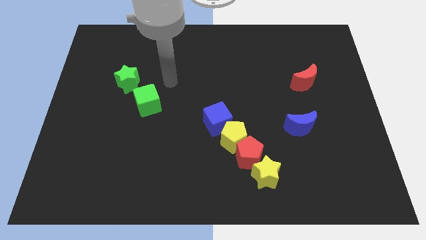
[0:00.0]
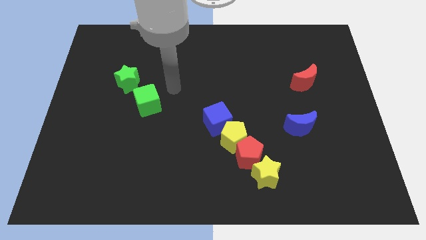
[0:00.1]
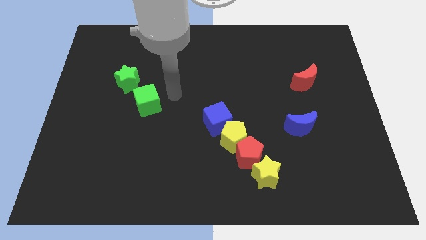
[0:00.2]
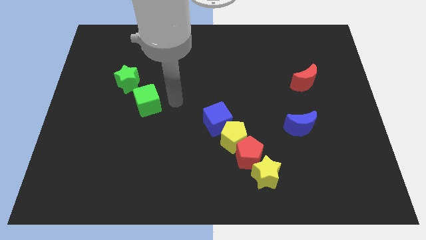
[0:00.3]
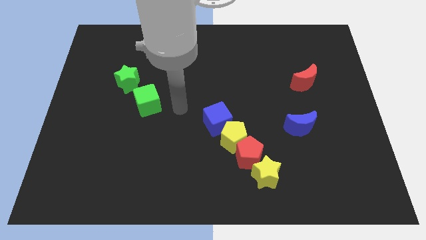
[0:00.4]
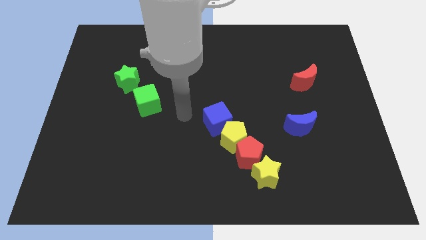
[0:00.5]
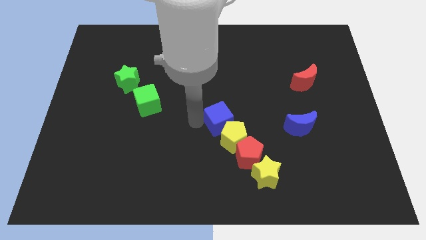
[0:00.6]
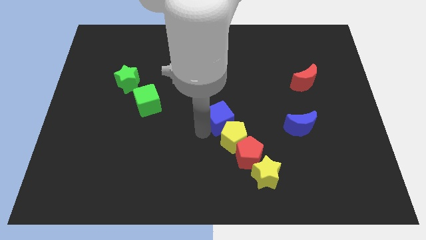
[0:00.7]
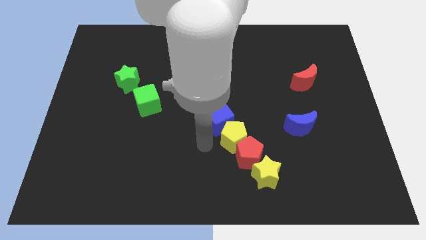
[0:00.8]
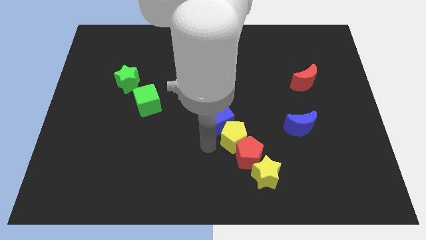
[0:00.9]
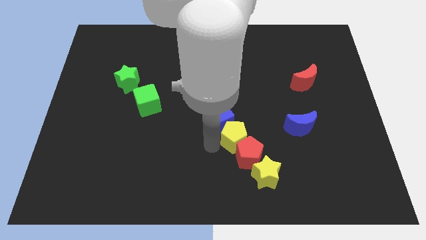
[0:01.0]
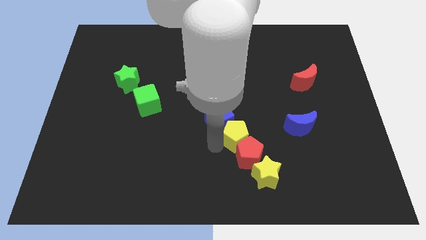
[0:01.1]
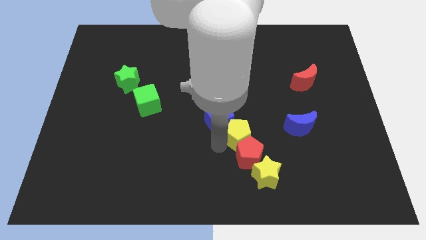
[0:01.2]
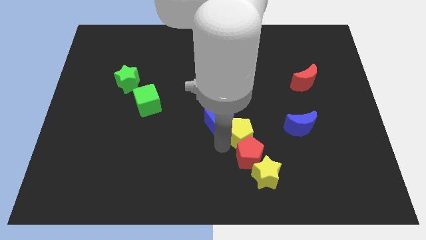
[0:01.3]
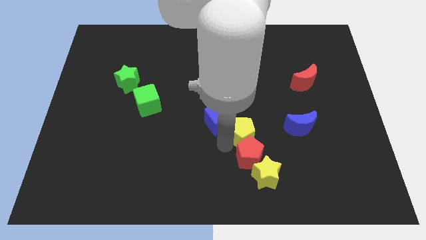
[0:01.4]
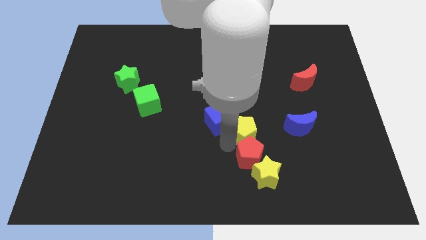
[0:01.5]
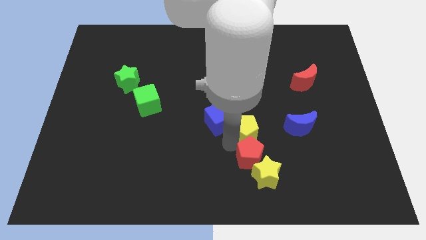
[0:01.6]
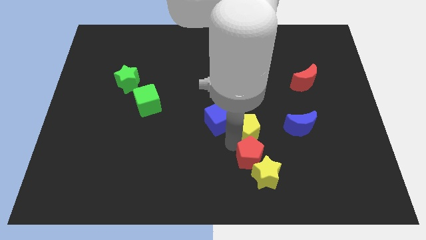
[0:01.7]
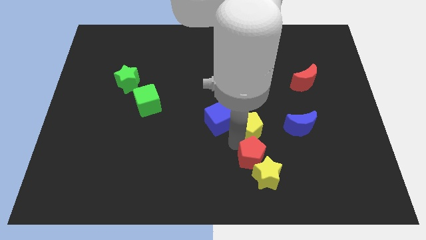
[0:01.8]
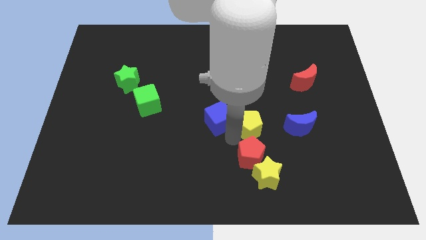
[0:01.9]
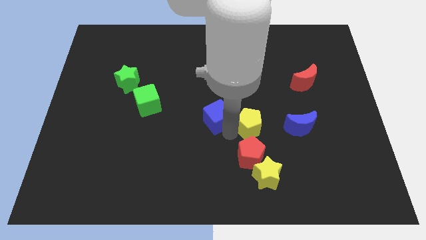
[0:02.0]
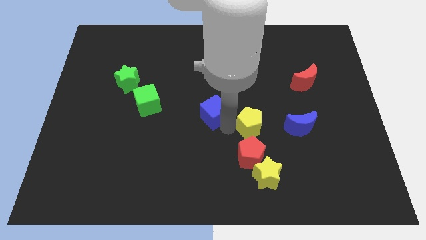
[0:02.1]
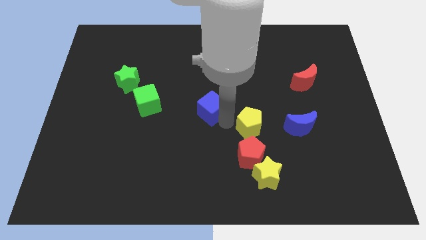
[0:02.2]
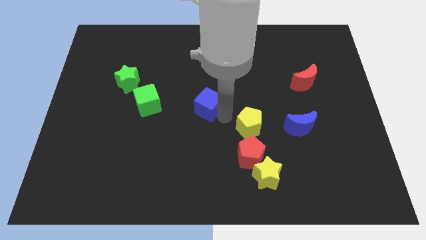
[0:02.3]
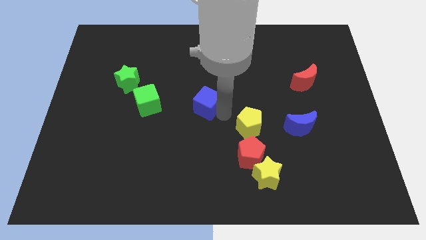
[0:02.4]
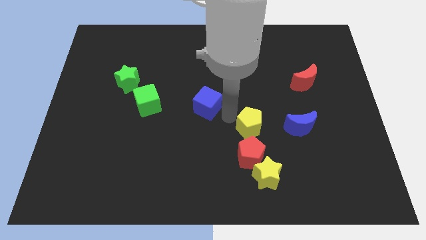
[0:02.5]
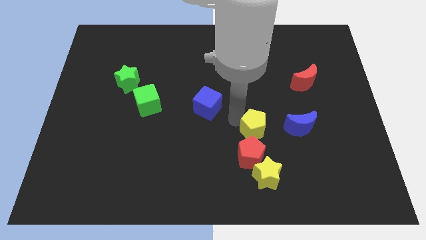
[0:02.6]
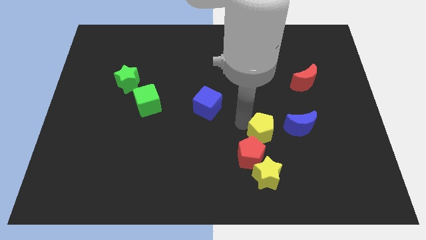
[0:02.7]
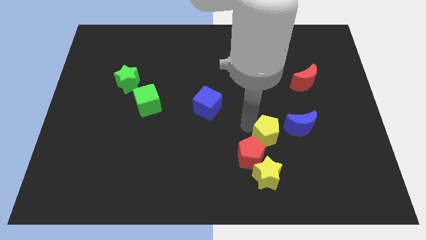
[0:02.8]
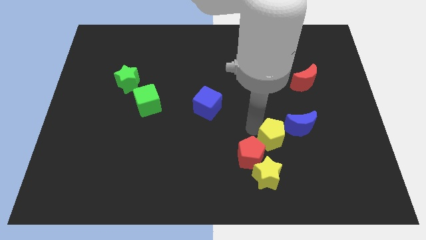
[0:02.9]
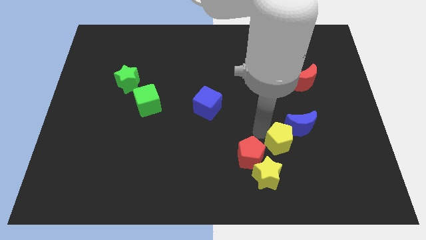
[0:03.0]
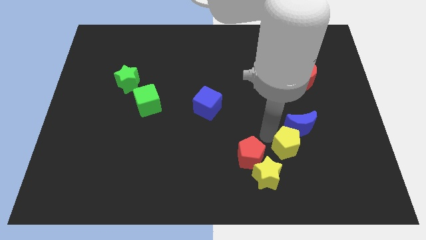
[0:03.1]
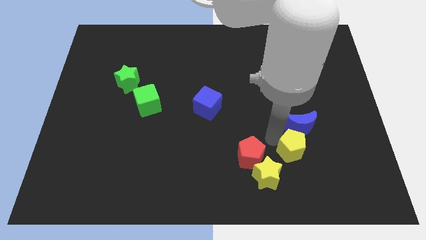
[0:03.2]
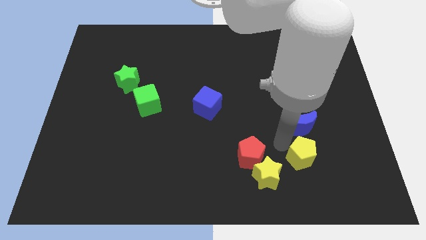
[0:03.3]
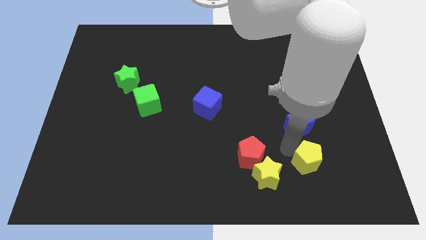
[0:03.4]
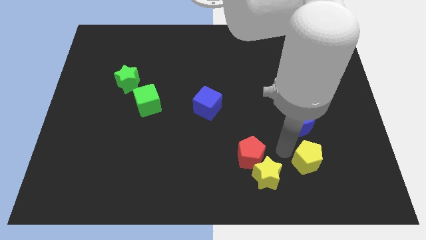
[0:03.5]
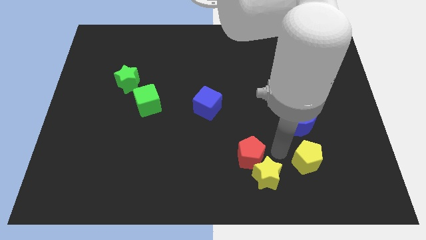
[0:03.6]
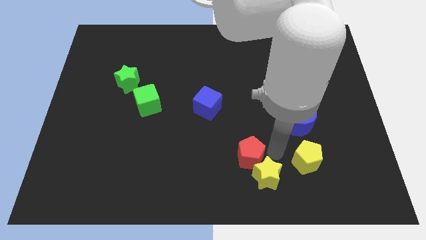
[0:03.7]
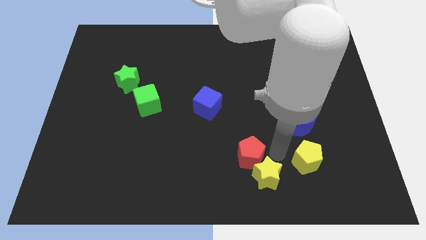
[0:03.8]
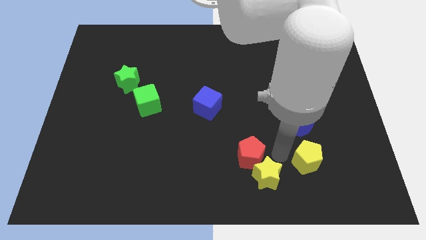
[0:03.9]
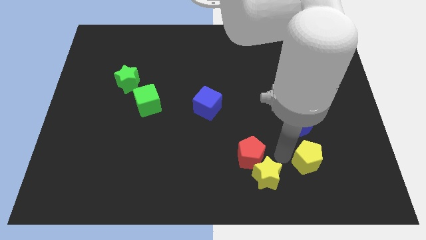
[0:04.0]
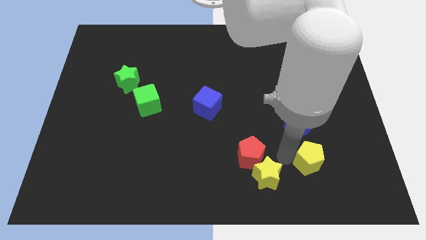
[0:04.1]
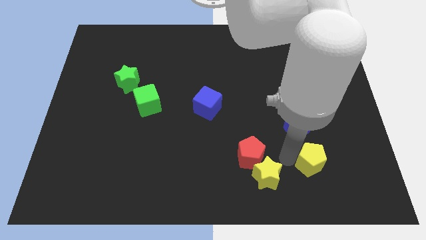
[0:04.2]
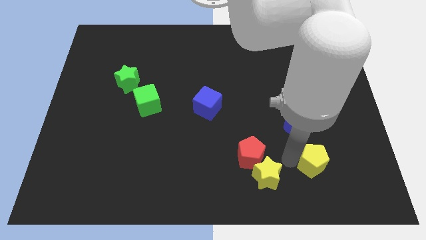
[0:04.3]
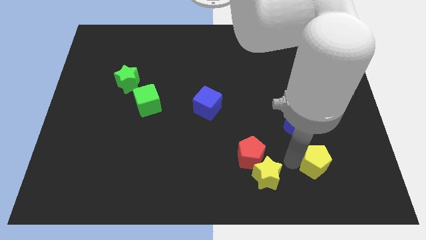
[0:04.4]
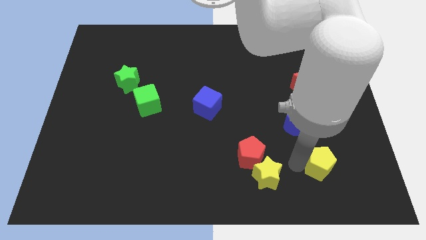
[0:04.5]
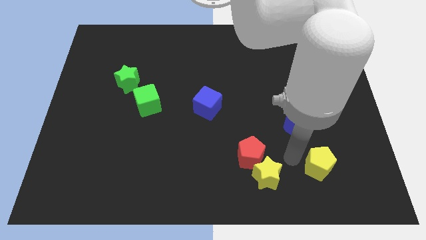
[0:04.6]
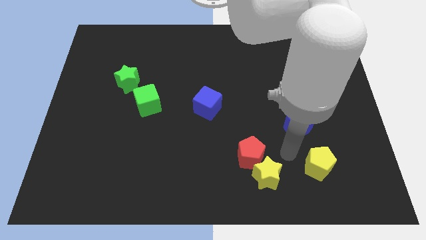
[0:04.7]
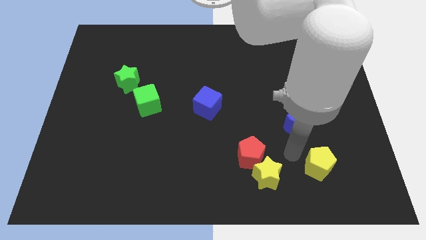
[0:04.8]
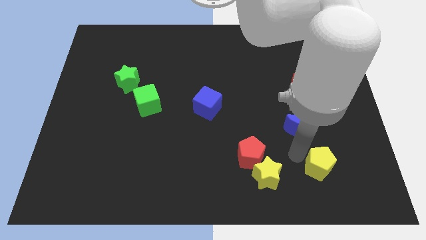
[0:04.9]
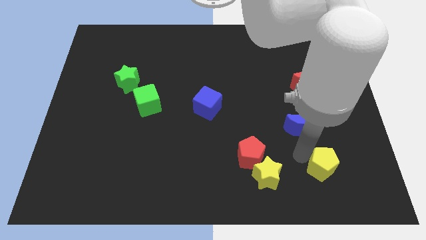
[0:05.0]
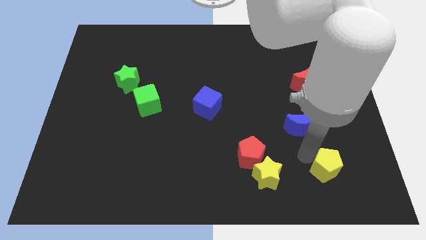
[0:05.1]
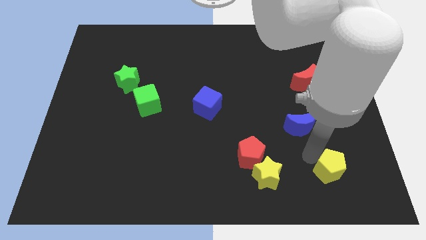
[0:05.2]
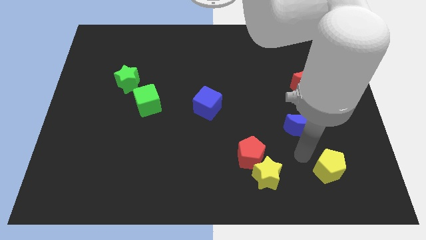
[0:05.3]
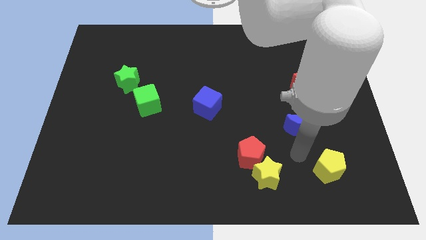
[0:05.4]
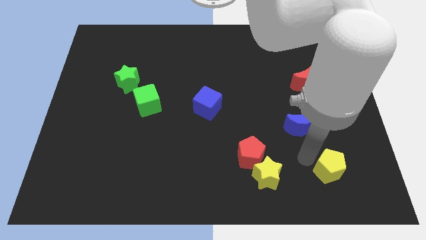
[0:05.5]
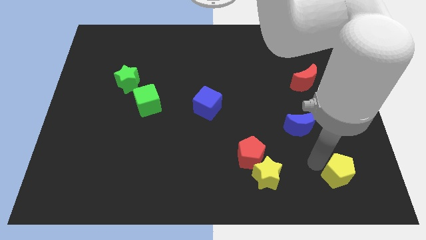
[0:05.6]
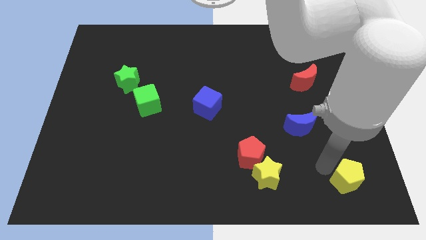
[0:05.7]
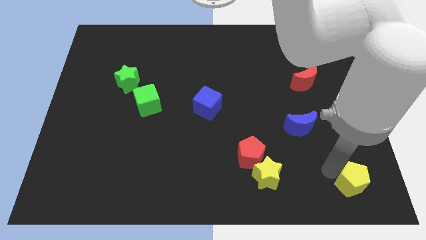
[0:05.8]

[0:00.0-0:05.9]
move the yellow pentagon to the bottom right
